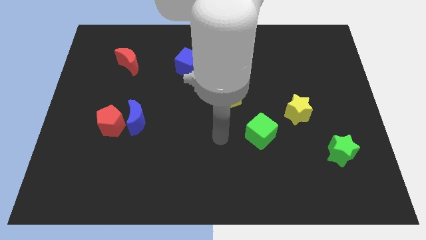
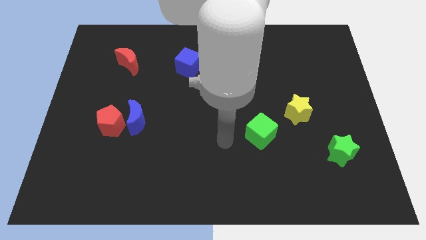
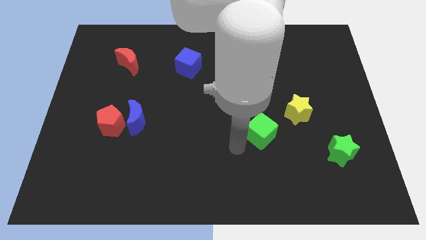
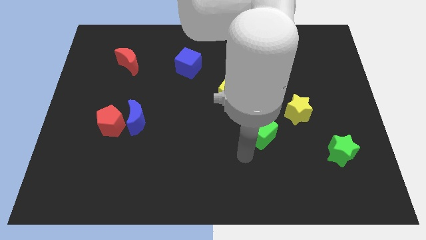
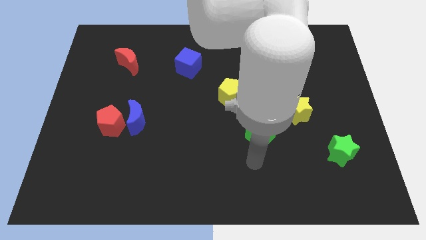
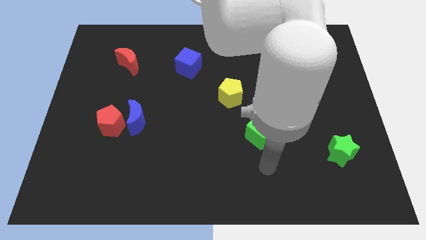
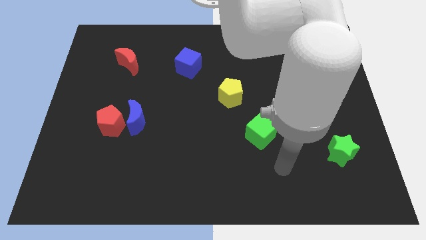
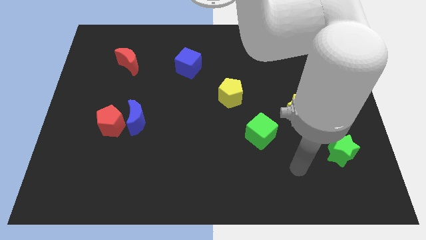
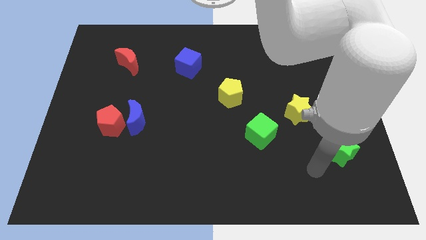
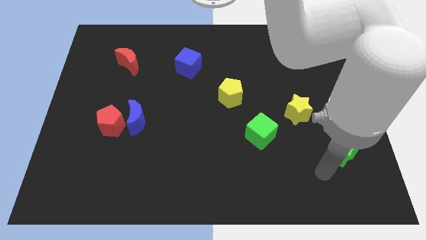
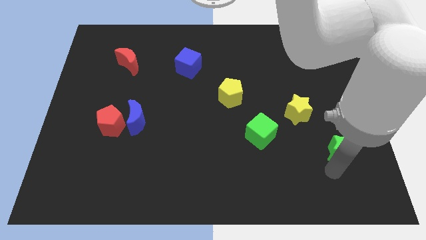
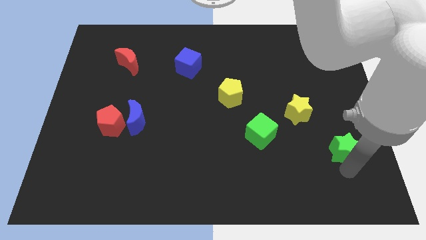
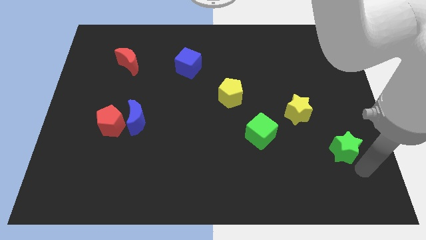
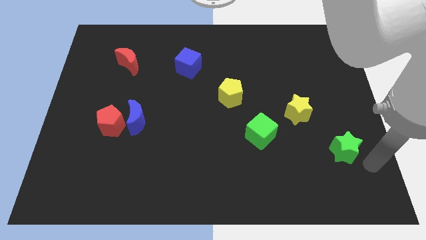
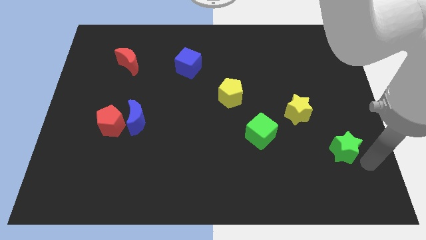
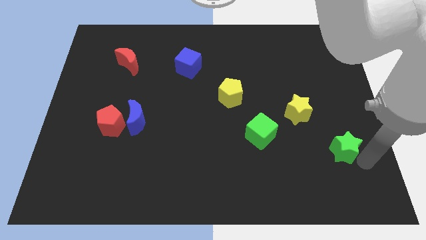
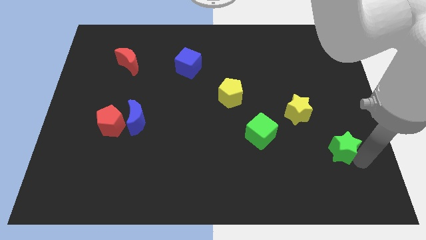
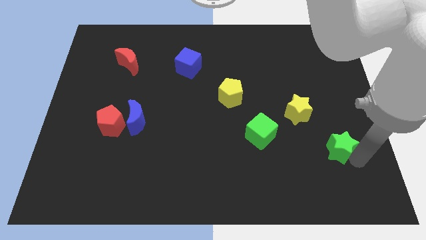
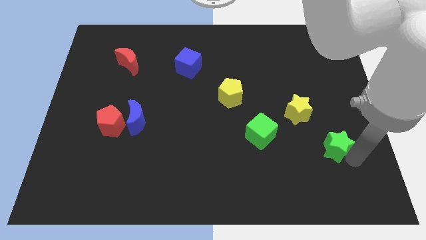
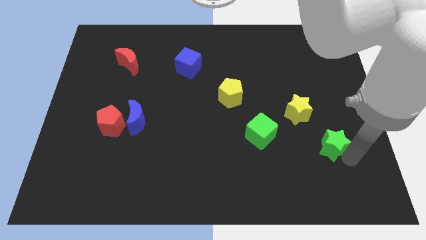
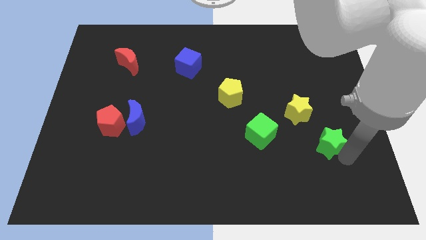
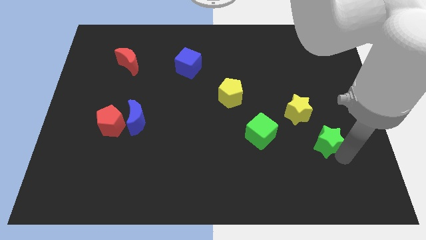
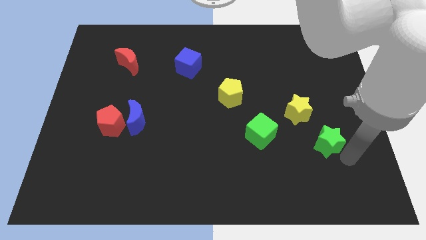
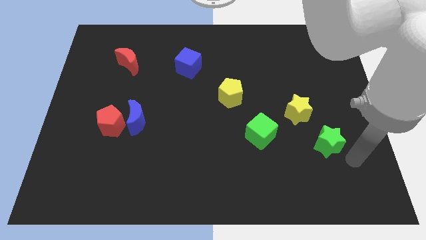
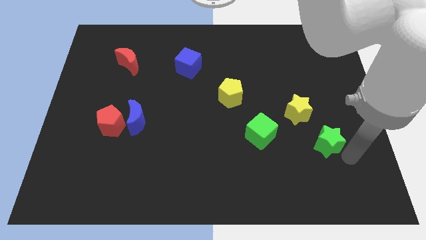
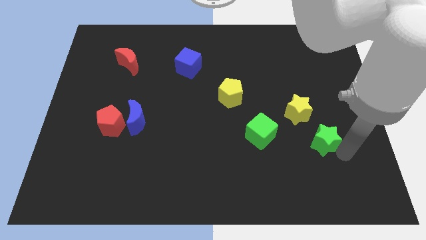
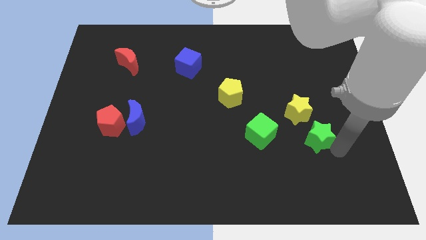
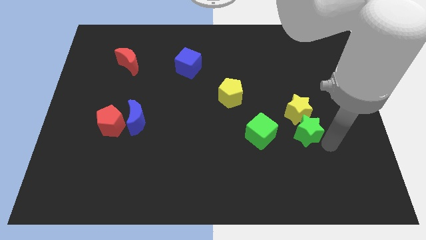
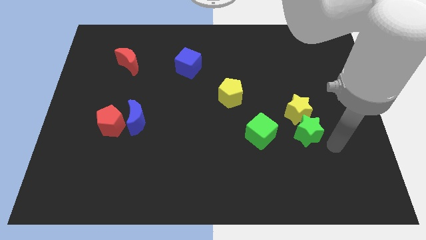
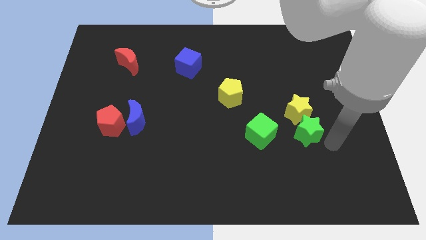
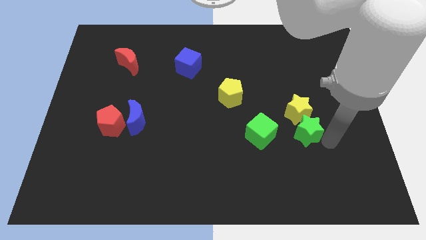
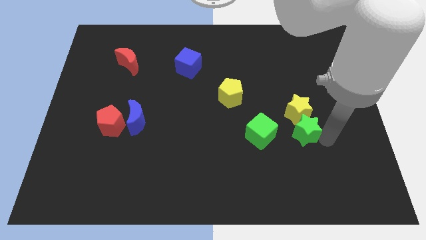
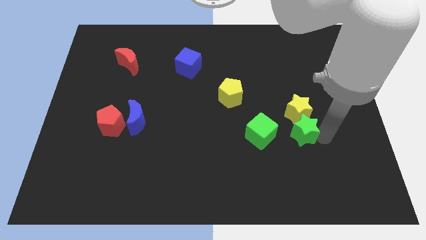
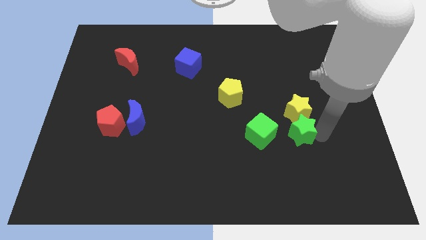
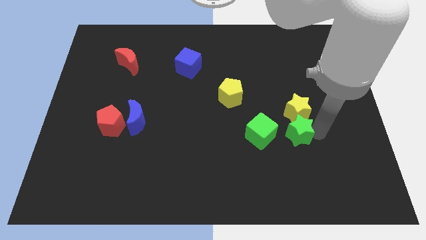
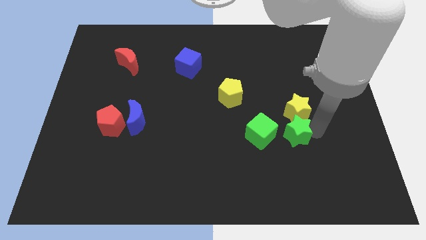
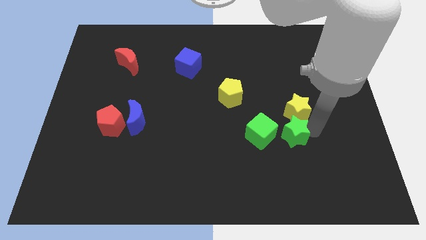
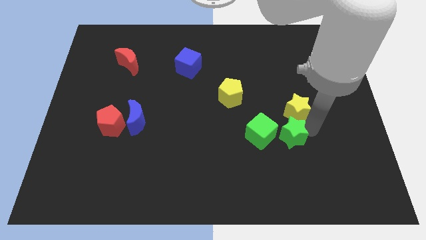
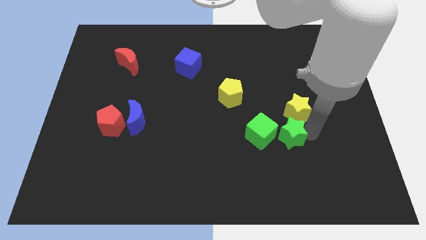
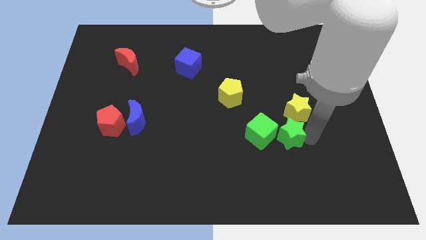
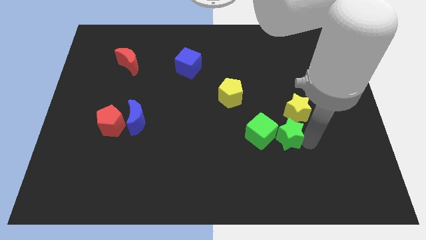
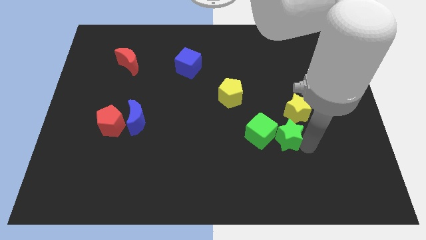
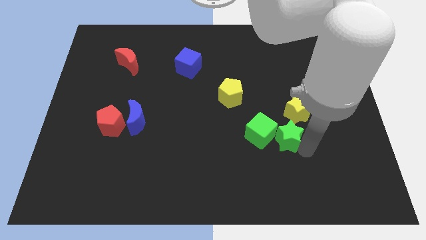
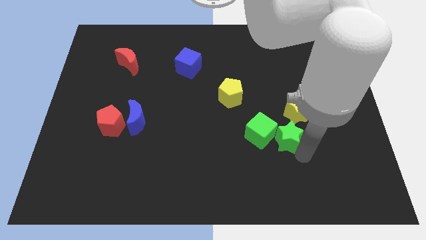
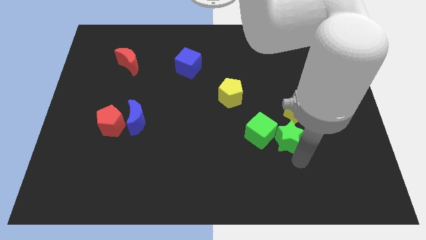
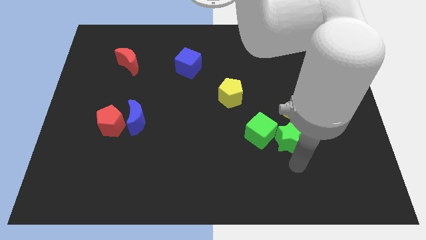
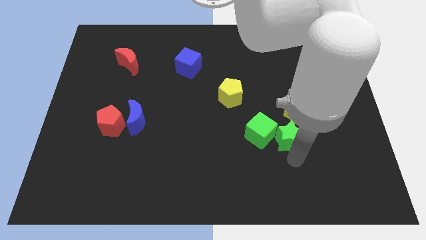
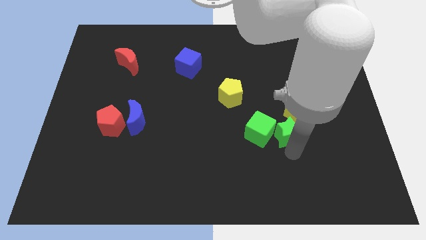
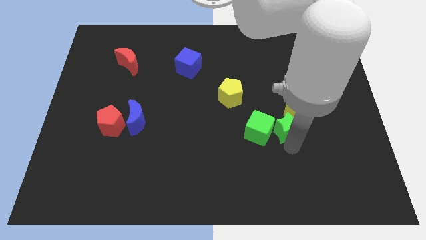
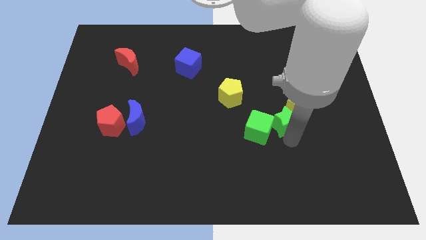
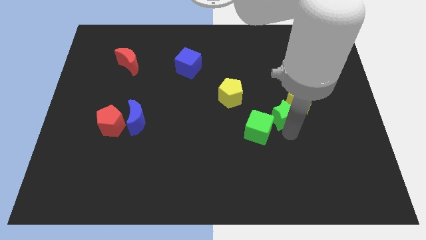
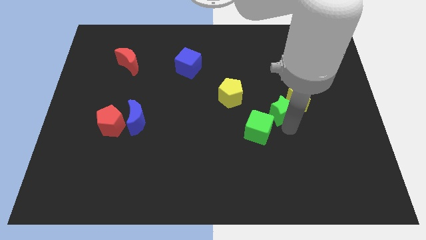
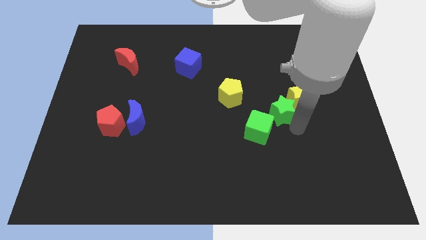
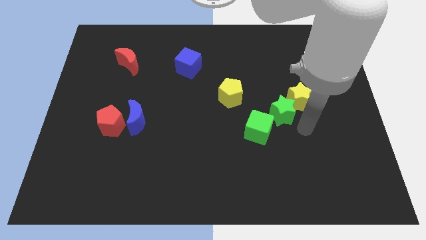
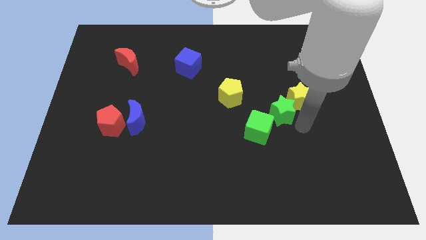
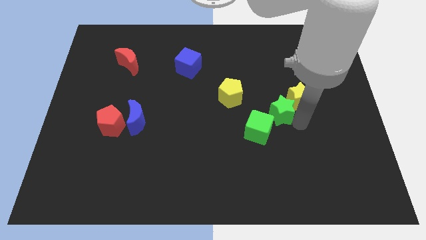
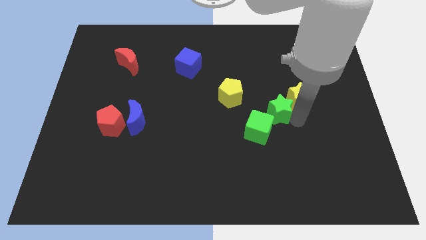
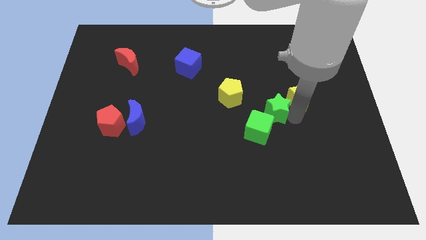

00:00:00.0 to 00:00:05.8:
slide the green star to the top side of the green cube
